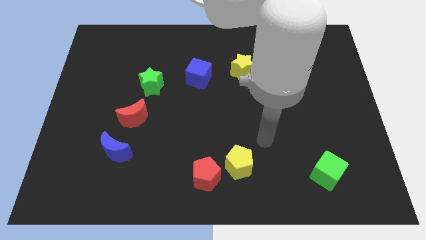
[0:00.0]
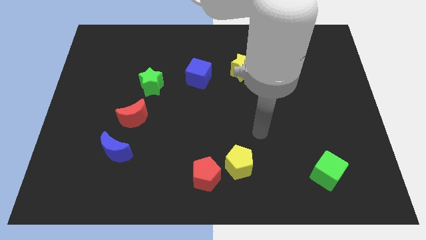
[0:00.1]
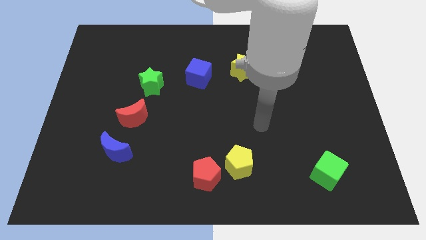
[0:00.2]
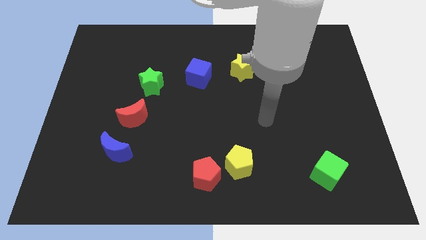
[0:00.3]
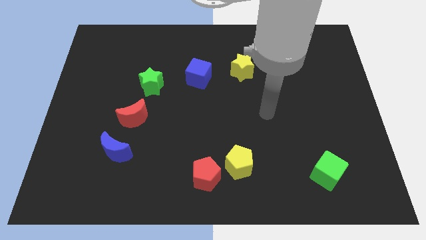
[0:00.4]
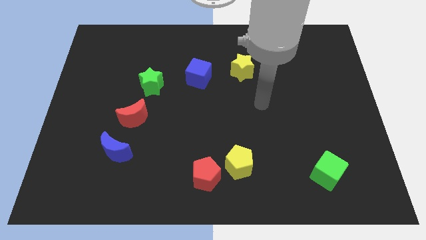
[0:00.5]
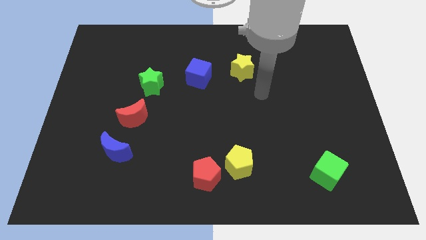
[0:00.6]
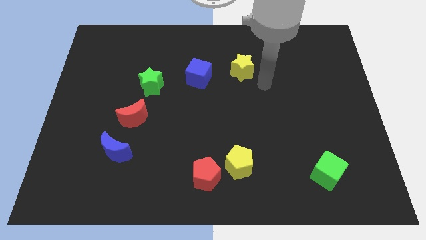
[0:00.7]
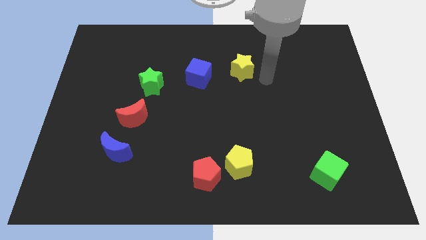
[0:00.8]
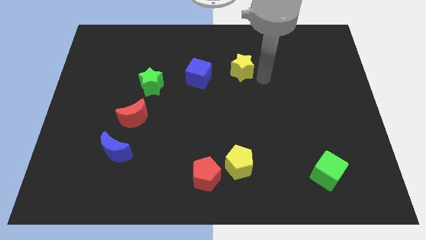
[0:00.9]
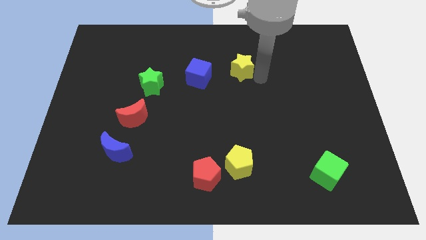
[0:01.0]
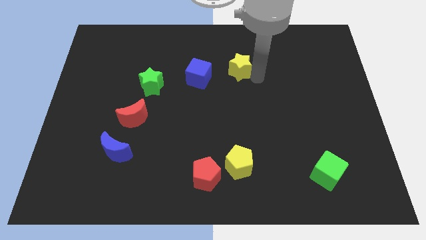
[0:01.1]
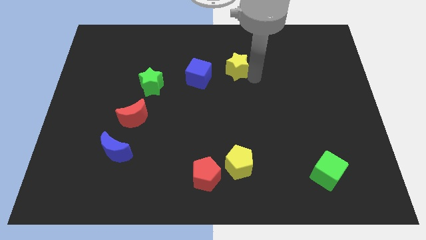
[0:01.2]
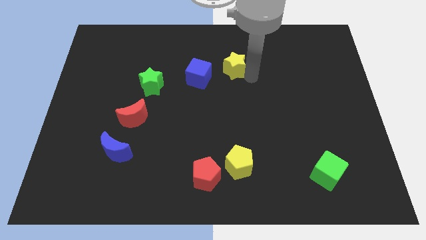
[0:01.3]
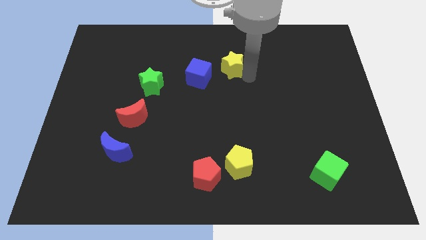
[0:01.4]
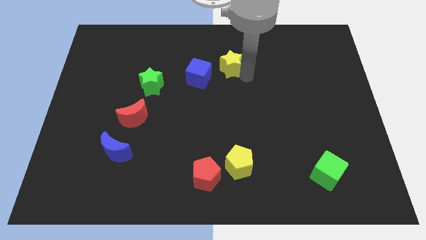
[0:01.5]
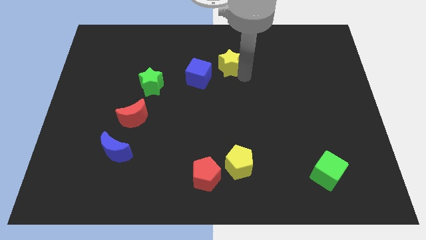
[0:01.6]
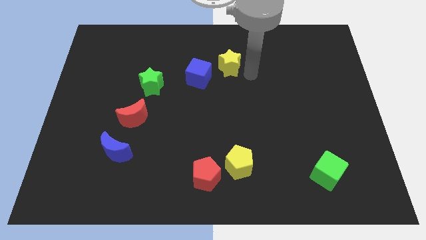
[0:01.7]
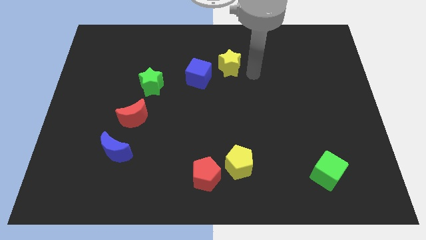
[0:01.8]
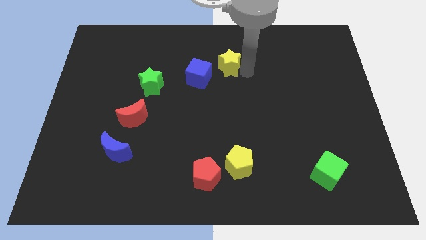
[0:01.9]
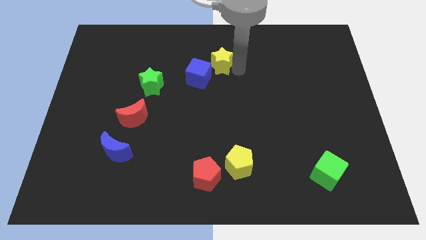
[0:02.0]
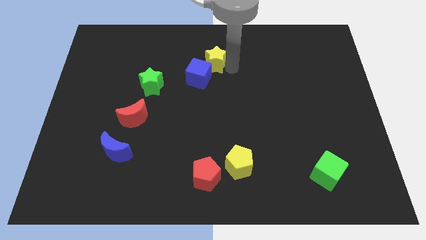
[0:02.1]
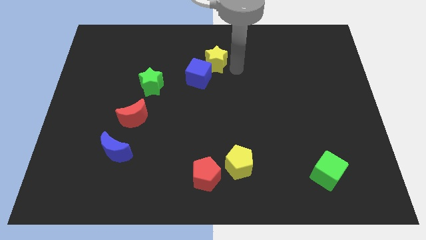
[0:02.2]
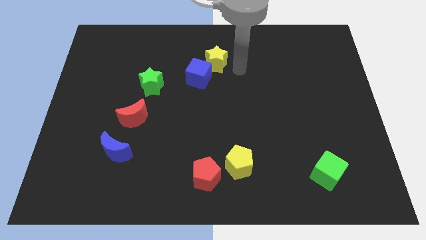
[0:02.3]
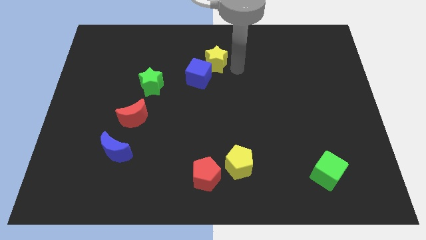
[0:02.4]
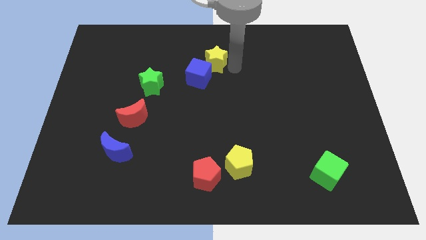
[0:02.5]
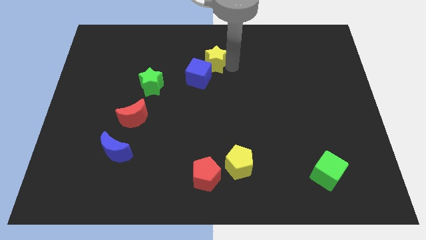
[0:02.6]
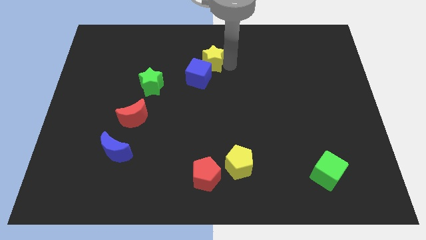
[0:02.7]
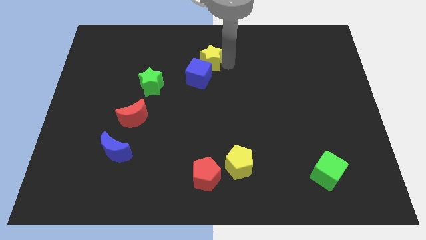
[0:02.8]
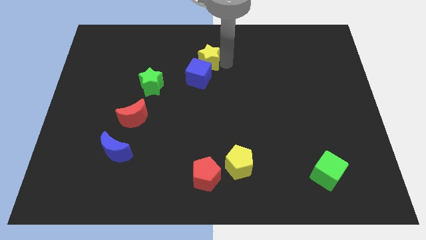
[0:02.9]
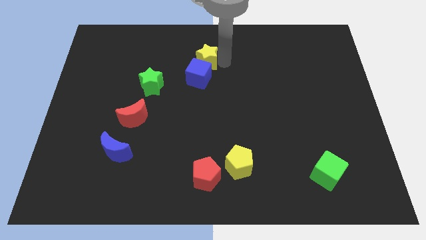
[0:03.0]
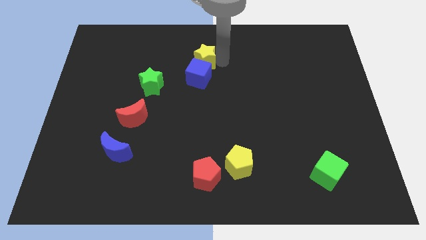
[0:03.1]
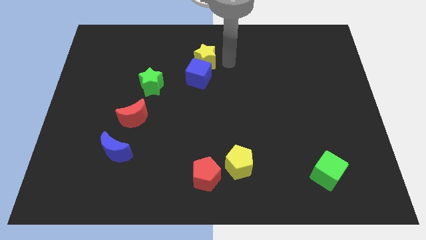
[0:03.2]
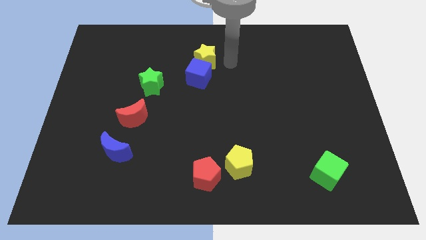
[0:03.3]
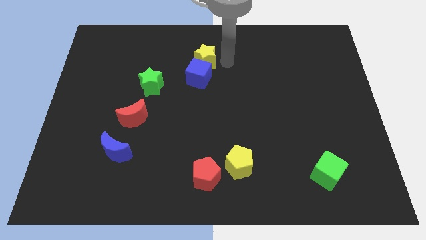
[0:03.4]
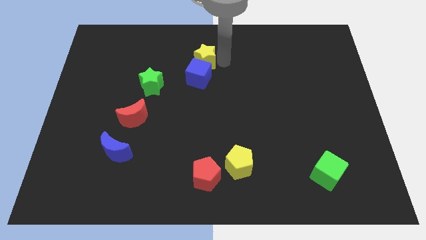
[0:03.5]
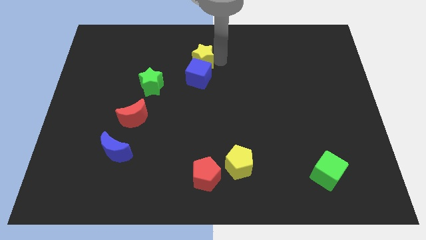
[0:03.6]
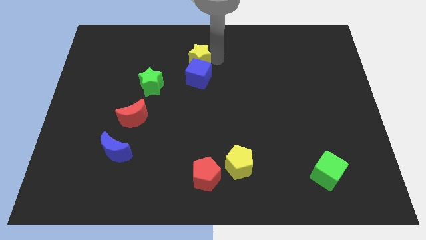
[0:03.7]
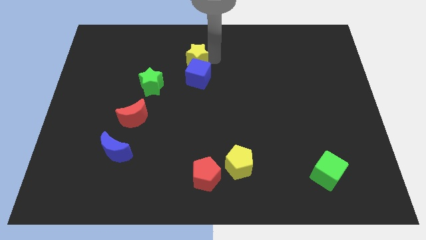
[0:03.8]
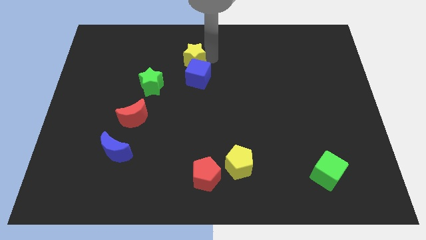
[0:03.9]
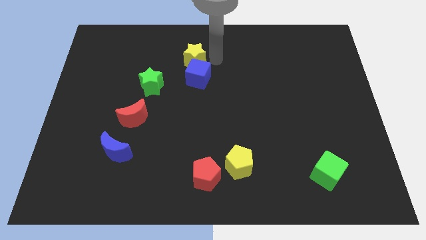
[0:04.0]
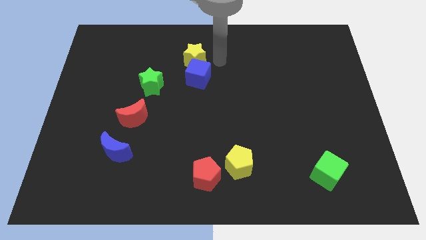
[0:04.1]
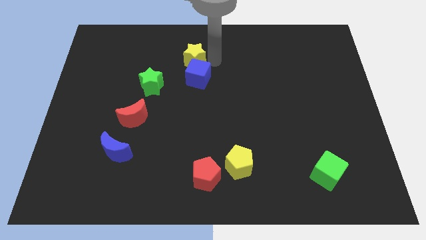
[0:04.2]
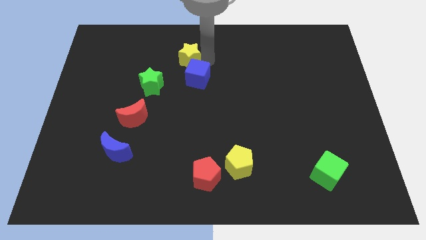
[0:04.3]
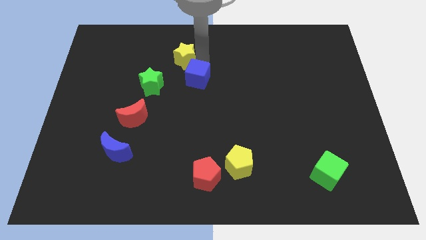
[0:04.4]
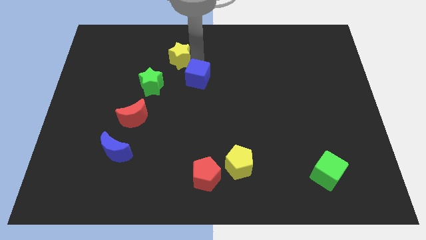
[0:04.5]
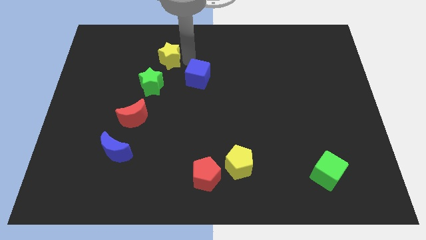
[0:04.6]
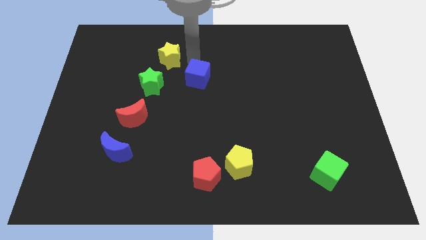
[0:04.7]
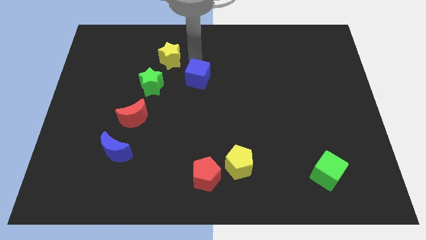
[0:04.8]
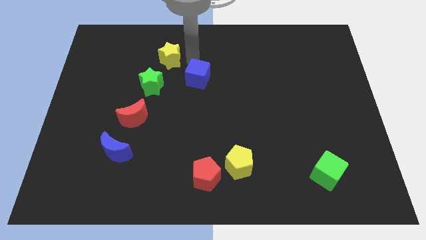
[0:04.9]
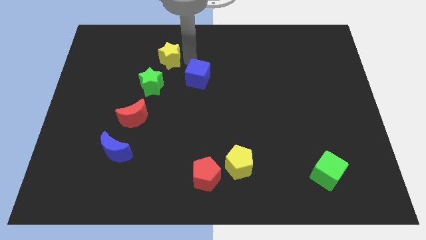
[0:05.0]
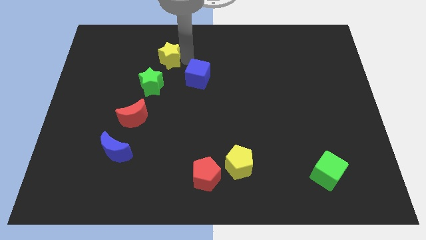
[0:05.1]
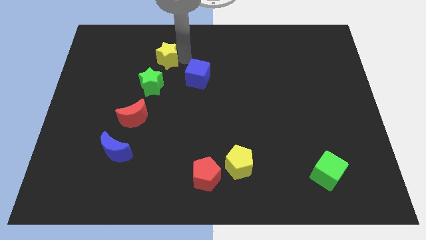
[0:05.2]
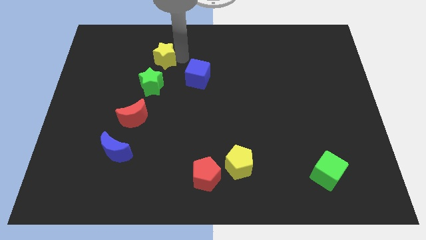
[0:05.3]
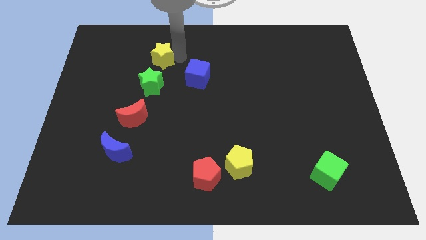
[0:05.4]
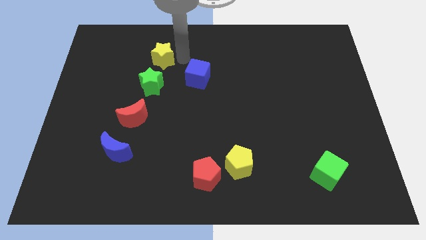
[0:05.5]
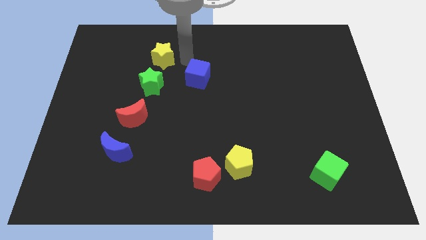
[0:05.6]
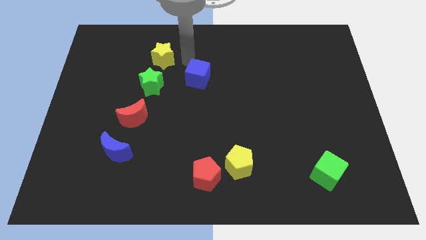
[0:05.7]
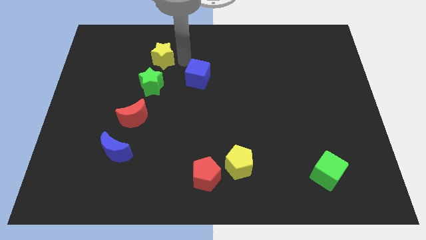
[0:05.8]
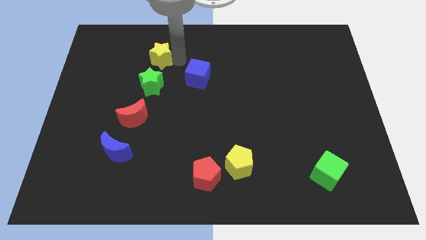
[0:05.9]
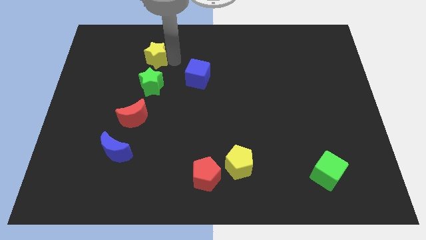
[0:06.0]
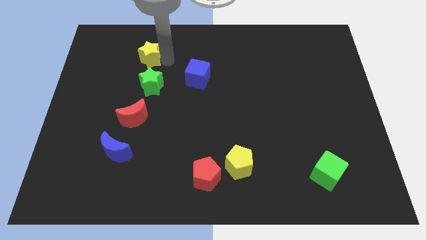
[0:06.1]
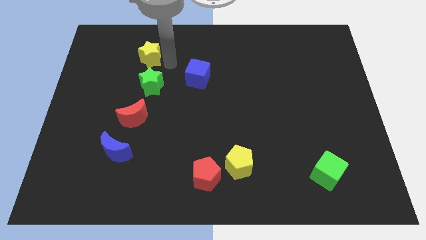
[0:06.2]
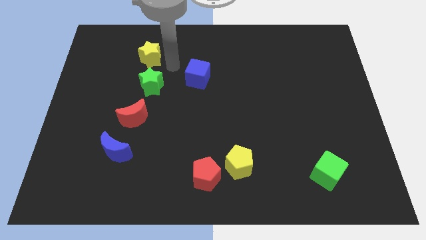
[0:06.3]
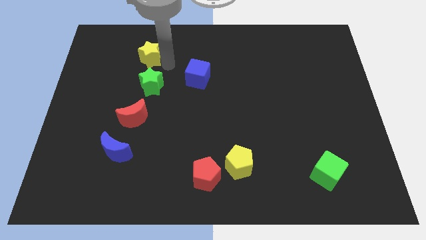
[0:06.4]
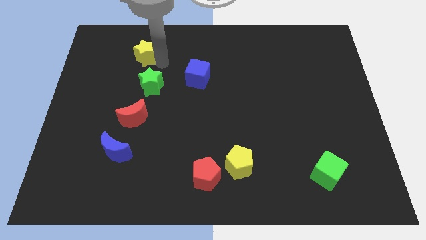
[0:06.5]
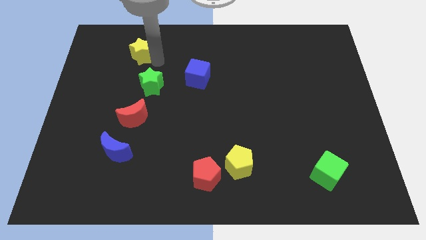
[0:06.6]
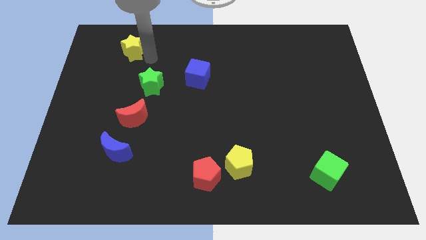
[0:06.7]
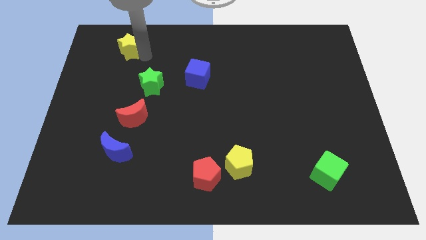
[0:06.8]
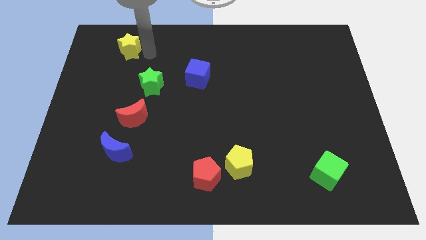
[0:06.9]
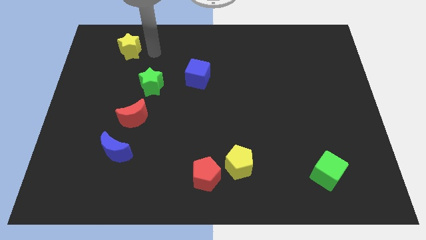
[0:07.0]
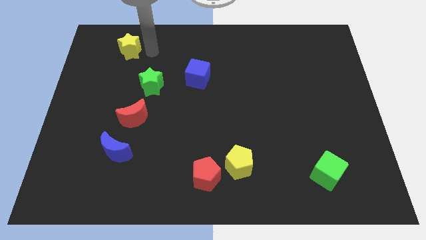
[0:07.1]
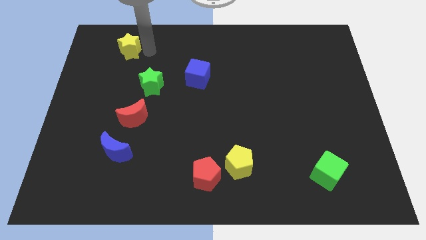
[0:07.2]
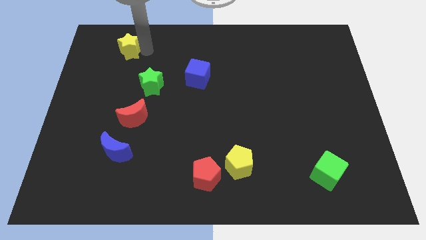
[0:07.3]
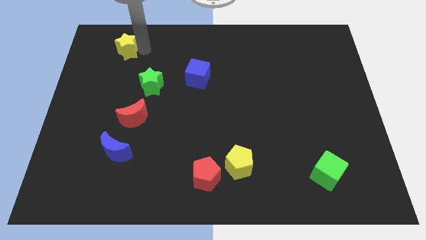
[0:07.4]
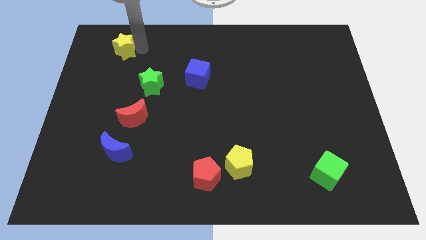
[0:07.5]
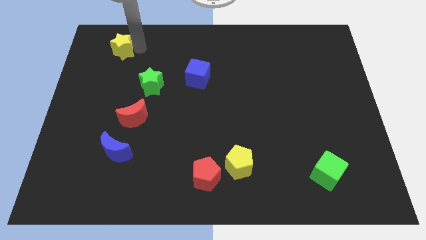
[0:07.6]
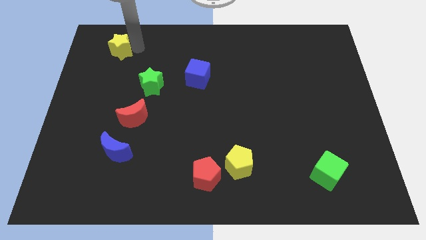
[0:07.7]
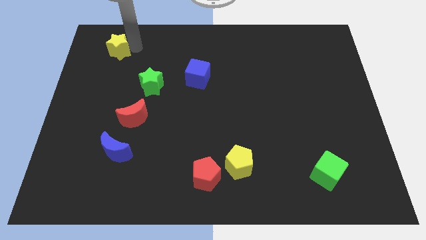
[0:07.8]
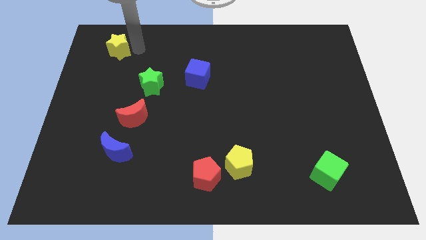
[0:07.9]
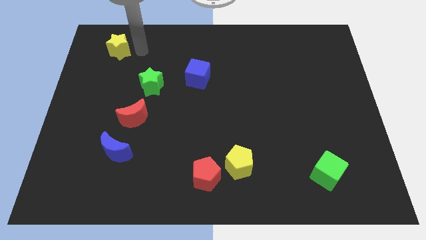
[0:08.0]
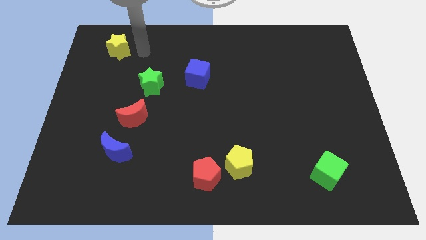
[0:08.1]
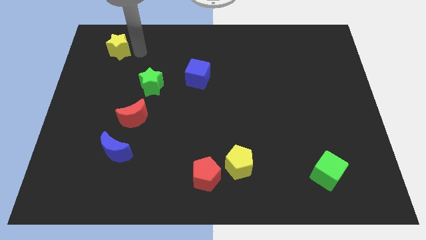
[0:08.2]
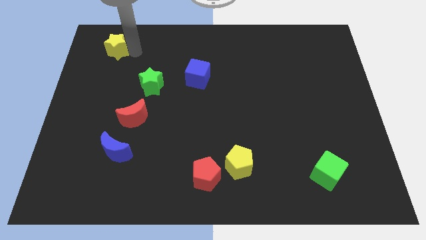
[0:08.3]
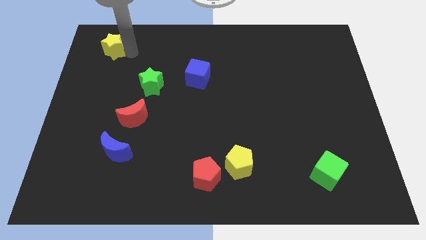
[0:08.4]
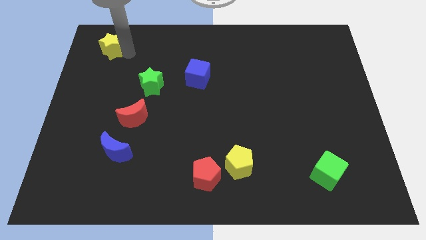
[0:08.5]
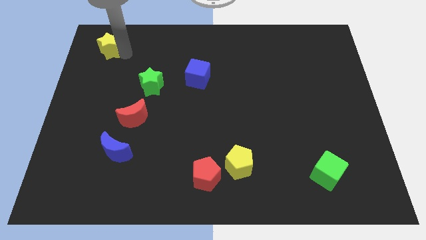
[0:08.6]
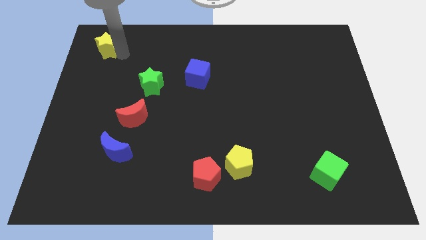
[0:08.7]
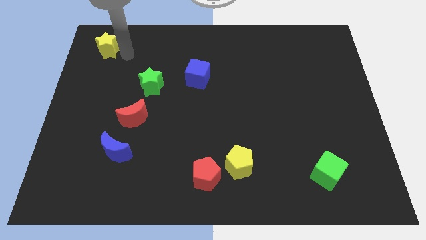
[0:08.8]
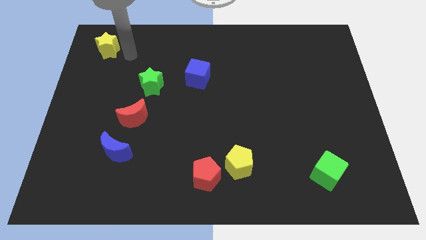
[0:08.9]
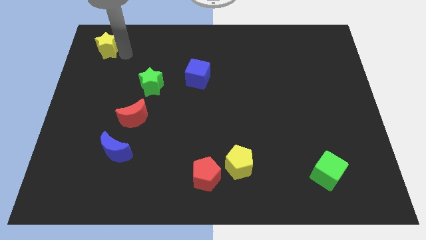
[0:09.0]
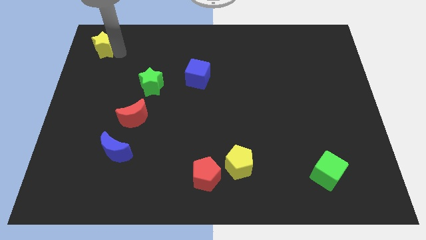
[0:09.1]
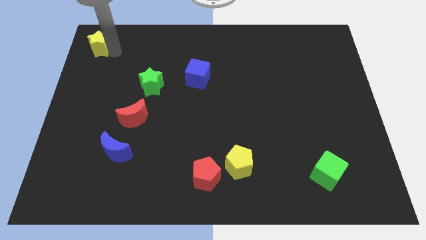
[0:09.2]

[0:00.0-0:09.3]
slide the yellow star to the top left
